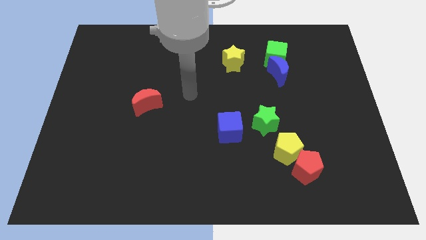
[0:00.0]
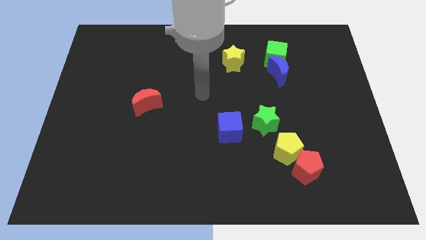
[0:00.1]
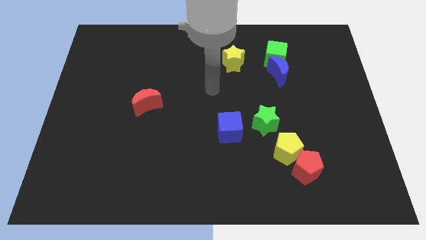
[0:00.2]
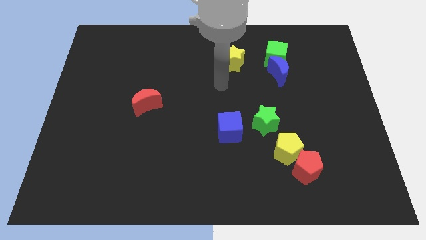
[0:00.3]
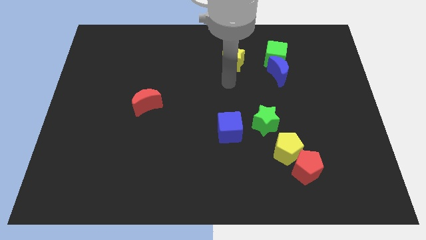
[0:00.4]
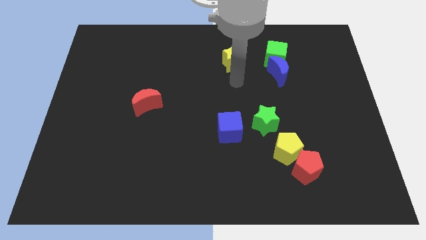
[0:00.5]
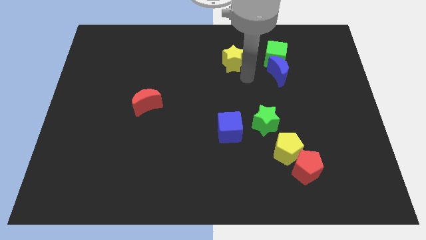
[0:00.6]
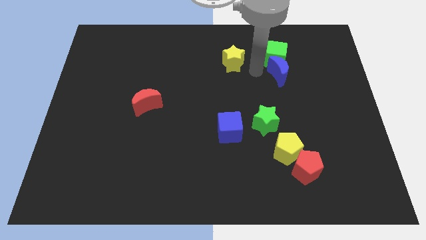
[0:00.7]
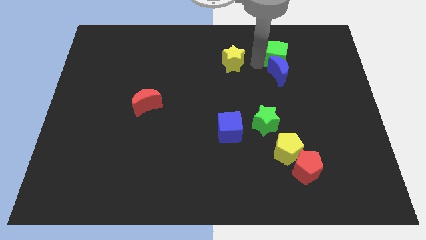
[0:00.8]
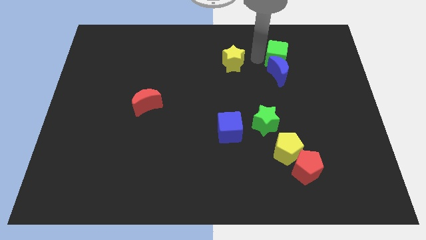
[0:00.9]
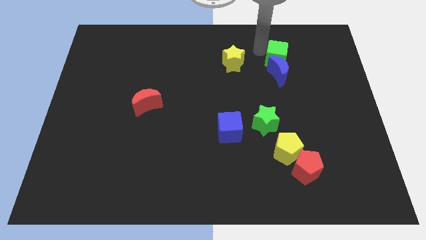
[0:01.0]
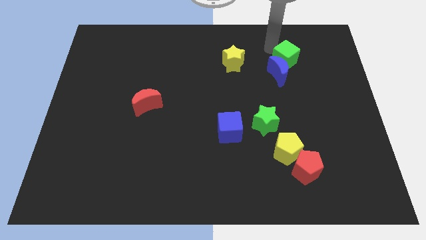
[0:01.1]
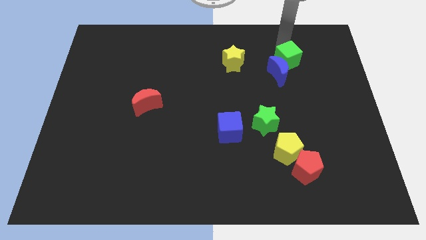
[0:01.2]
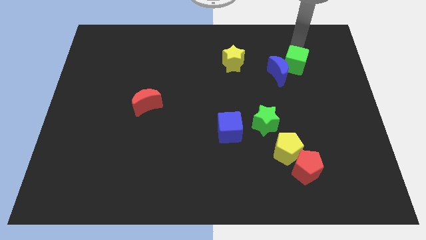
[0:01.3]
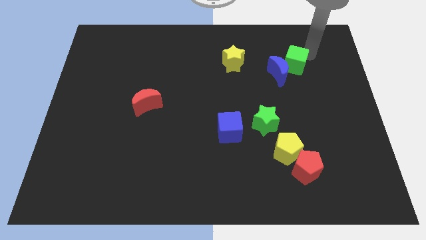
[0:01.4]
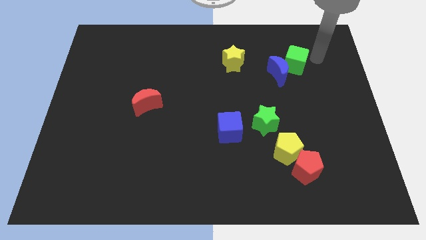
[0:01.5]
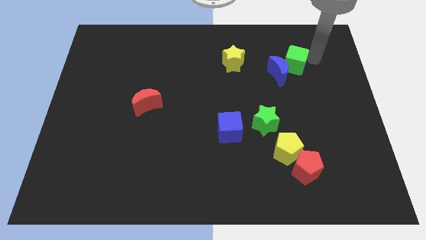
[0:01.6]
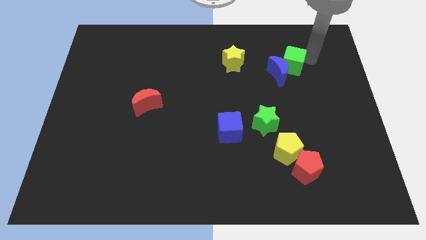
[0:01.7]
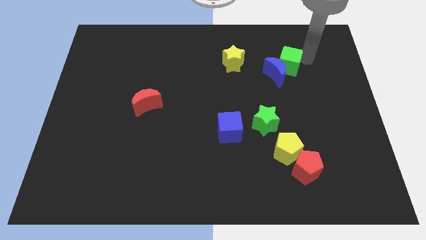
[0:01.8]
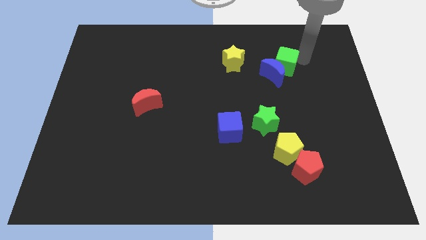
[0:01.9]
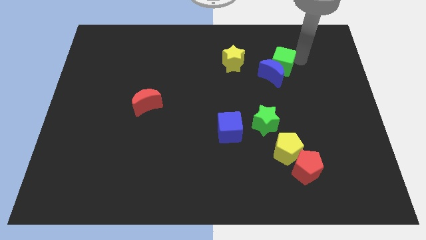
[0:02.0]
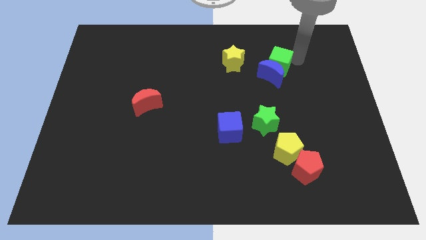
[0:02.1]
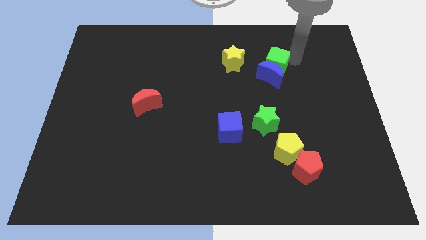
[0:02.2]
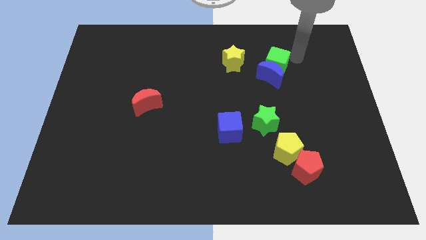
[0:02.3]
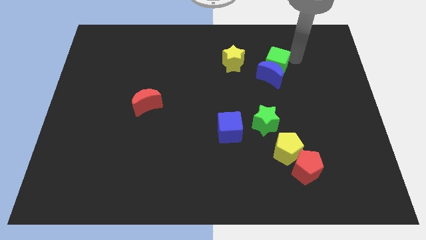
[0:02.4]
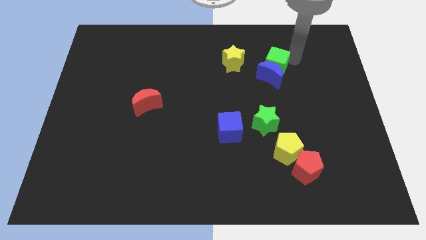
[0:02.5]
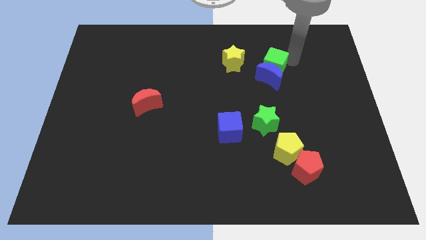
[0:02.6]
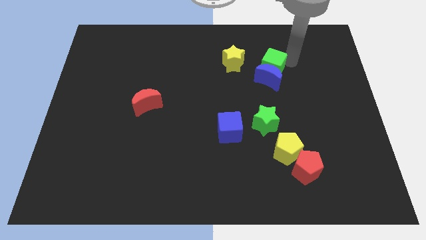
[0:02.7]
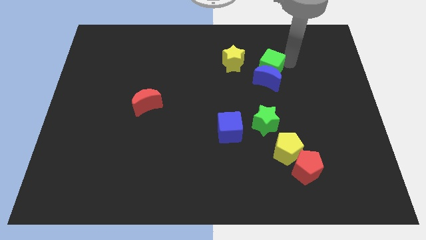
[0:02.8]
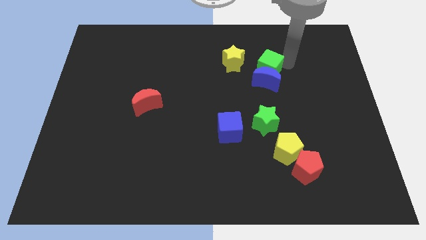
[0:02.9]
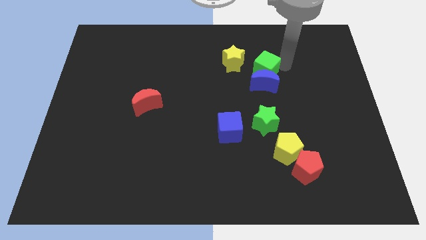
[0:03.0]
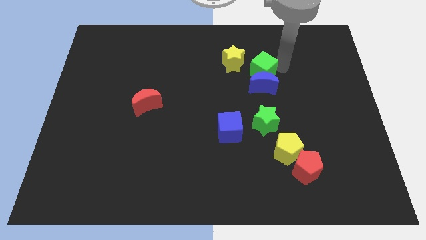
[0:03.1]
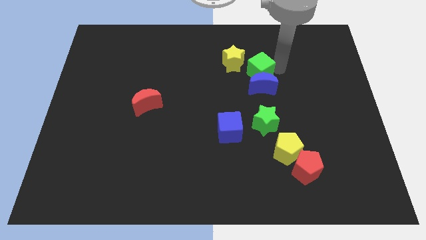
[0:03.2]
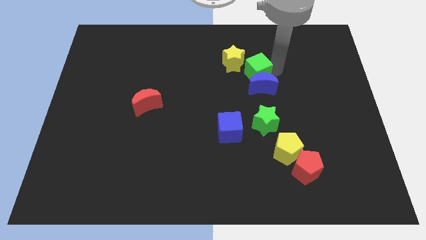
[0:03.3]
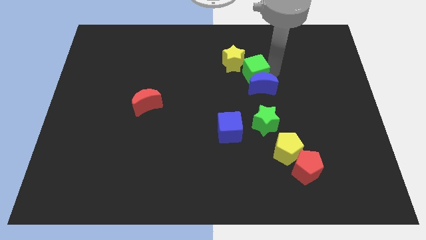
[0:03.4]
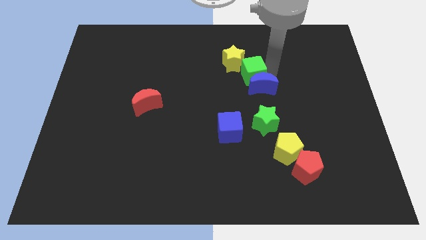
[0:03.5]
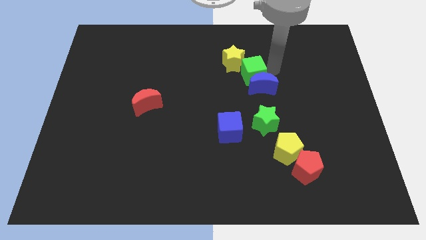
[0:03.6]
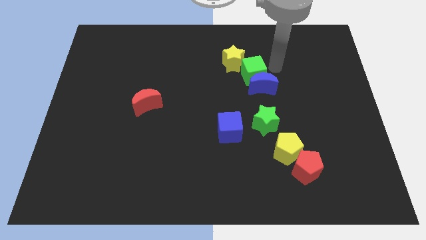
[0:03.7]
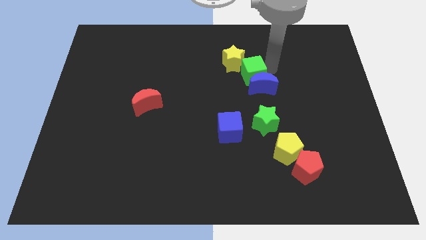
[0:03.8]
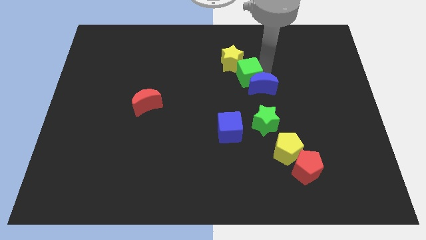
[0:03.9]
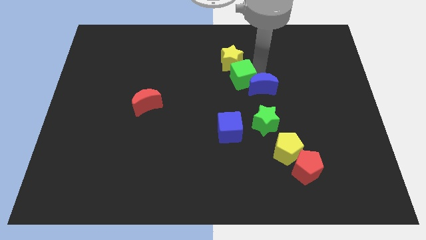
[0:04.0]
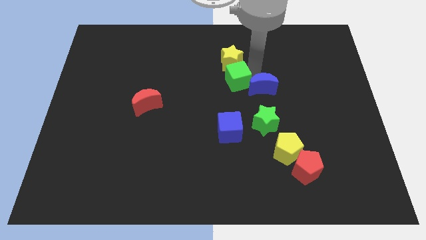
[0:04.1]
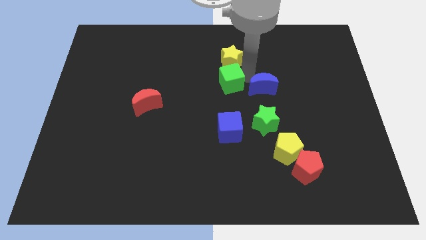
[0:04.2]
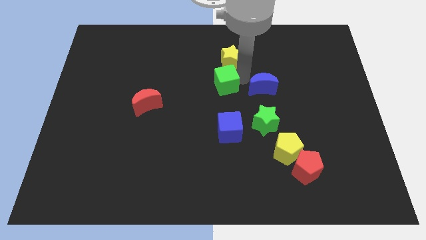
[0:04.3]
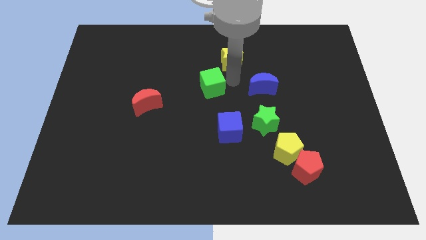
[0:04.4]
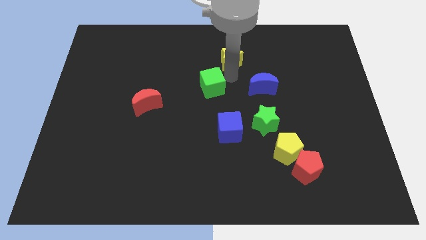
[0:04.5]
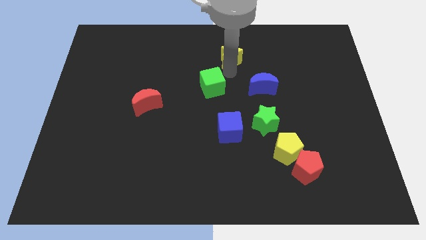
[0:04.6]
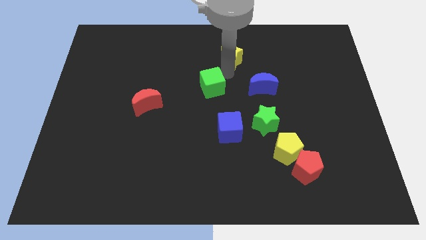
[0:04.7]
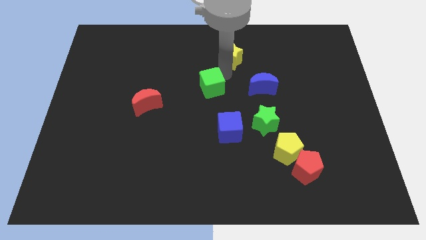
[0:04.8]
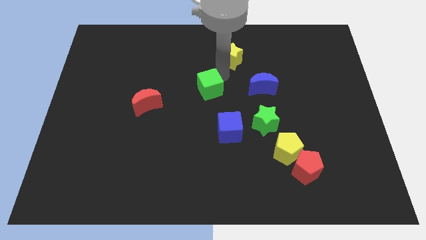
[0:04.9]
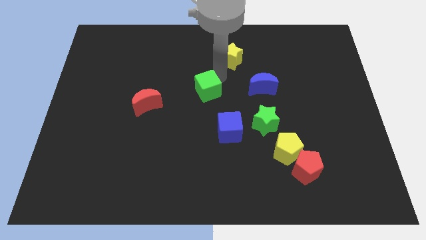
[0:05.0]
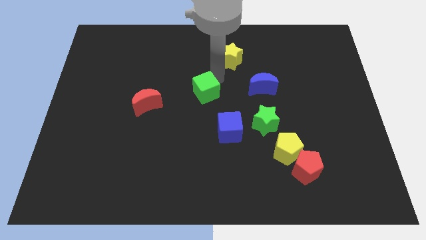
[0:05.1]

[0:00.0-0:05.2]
move the green cube to the right side of the red moon

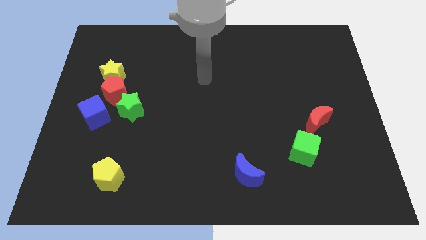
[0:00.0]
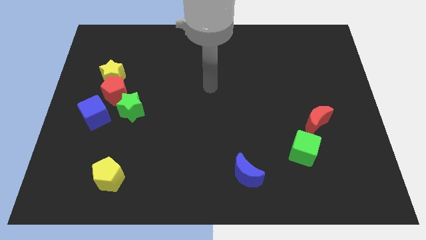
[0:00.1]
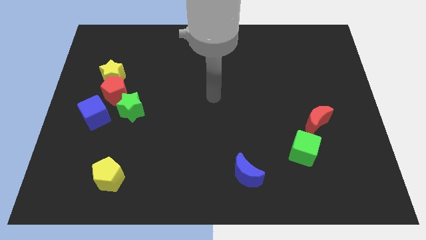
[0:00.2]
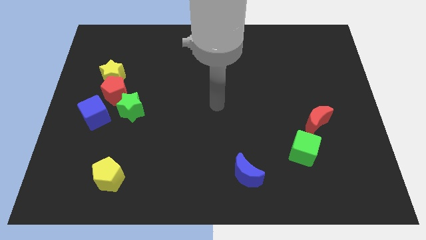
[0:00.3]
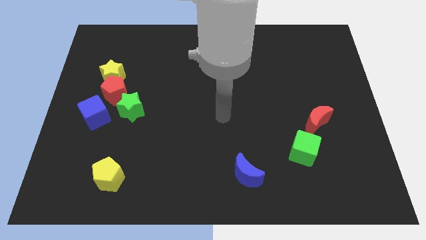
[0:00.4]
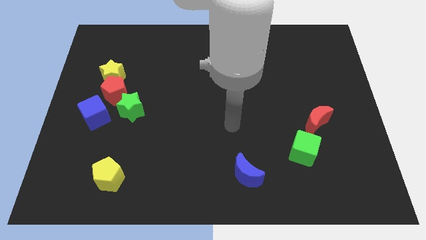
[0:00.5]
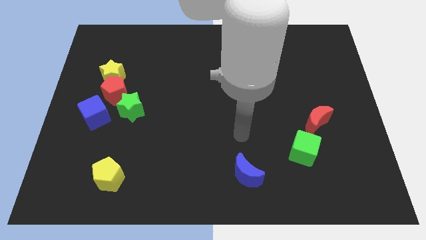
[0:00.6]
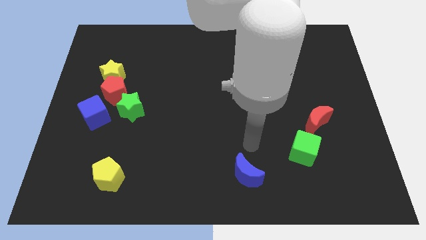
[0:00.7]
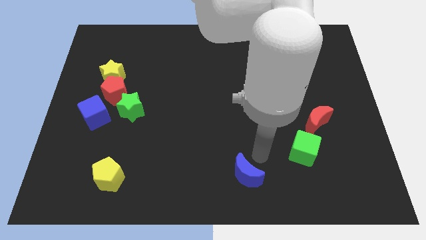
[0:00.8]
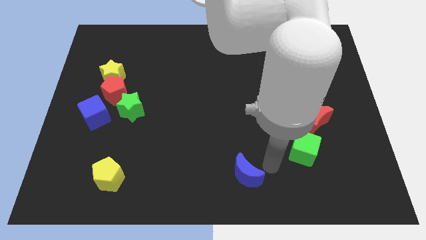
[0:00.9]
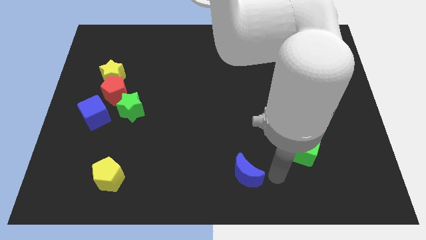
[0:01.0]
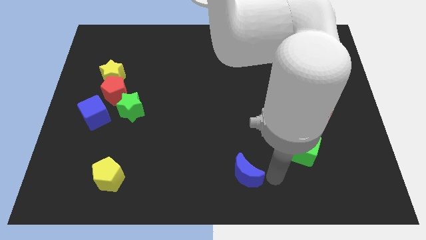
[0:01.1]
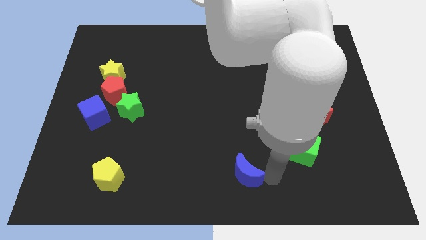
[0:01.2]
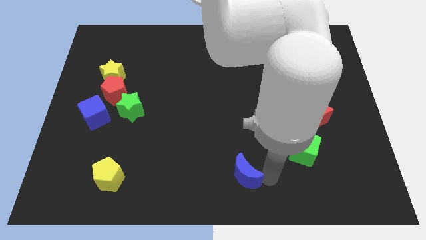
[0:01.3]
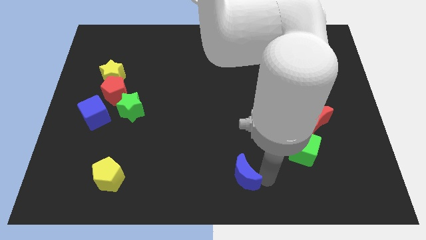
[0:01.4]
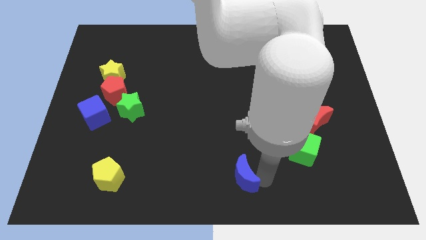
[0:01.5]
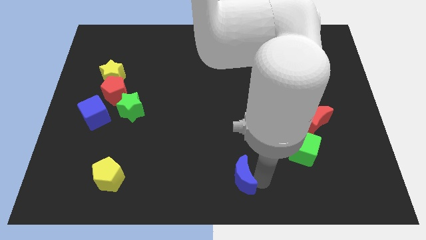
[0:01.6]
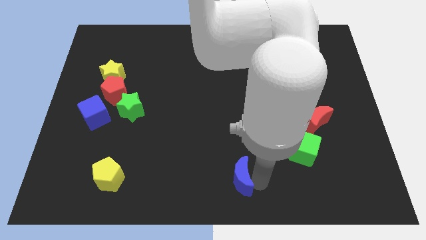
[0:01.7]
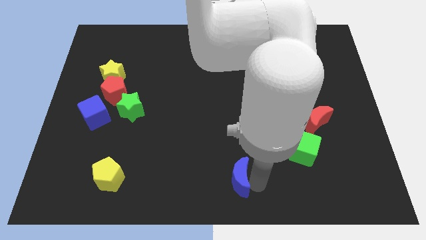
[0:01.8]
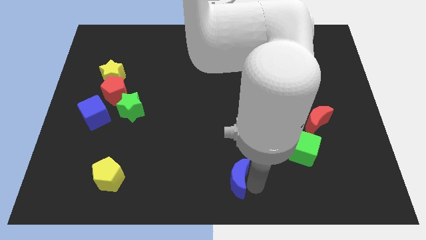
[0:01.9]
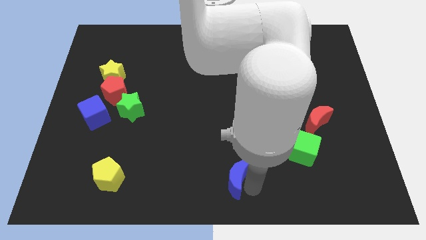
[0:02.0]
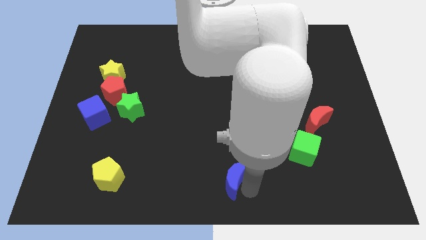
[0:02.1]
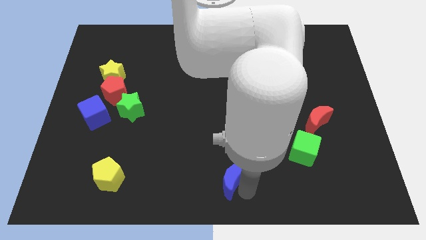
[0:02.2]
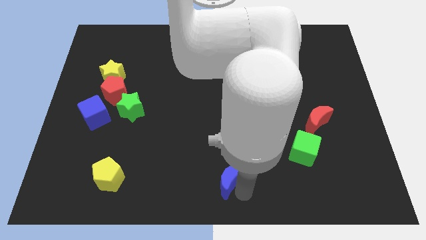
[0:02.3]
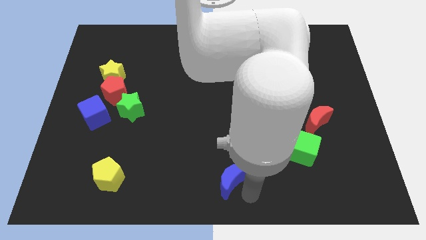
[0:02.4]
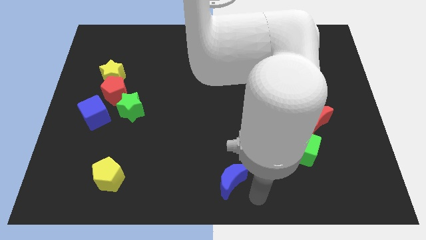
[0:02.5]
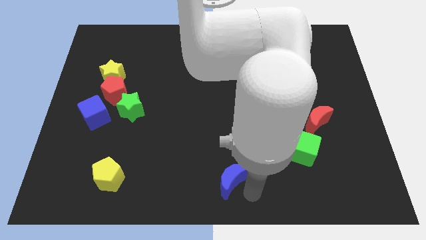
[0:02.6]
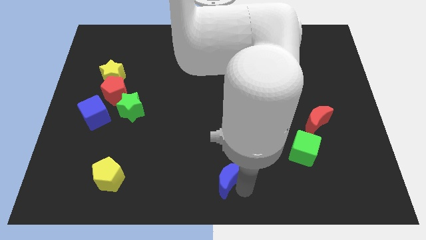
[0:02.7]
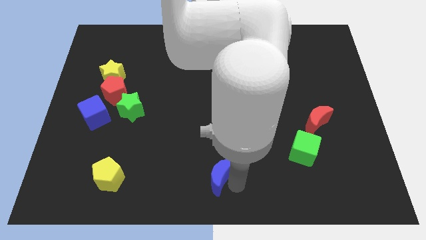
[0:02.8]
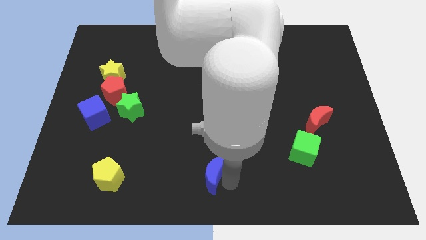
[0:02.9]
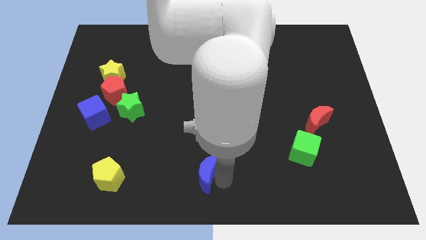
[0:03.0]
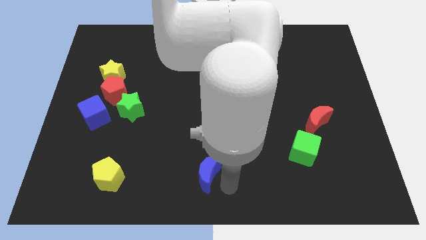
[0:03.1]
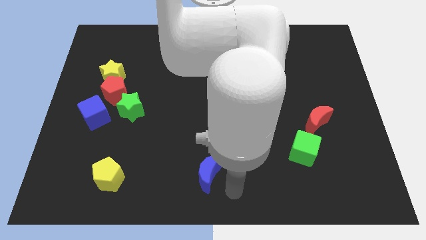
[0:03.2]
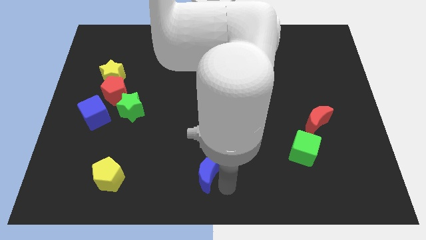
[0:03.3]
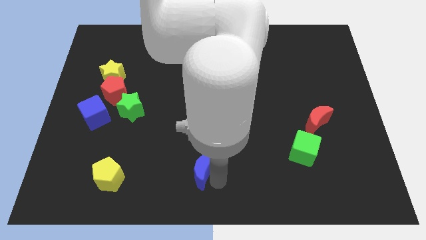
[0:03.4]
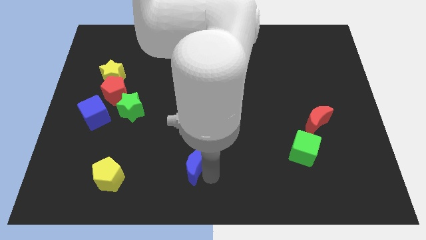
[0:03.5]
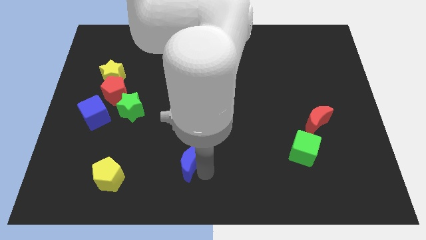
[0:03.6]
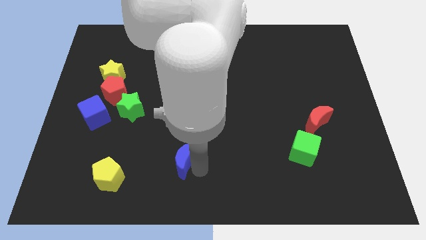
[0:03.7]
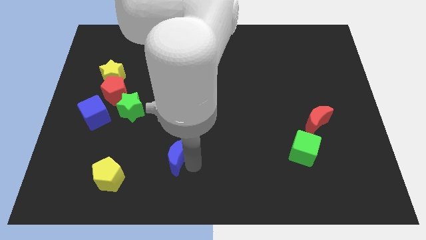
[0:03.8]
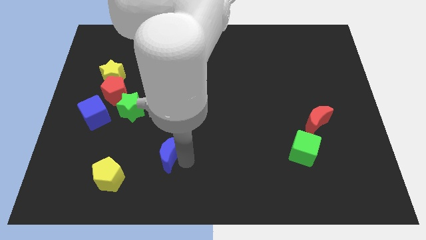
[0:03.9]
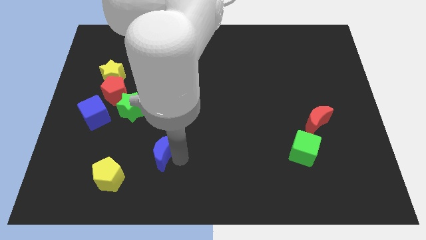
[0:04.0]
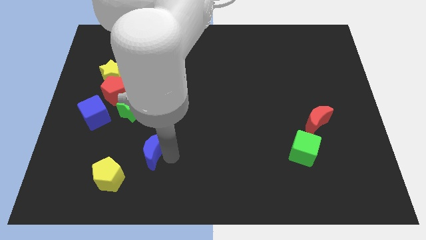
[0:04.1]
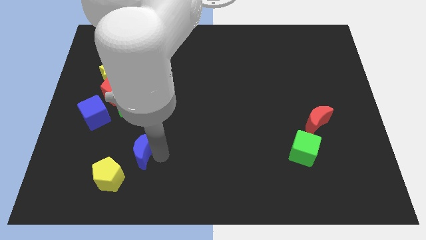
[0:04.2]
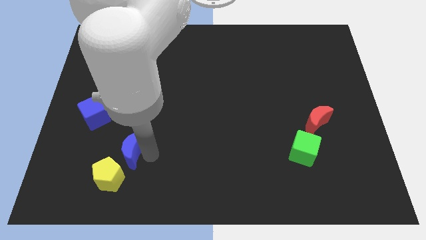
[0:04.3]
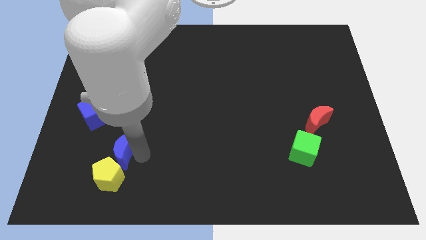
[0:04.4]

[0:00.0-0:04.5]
move the blue moon to the bottom right of the blue cube
